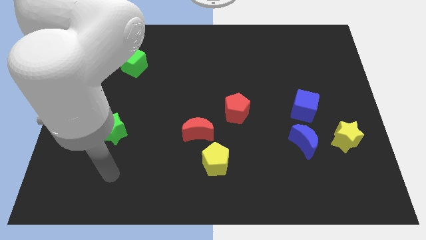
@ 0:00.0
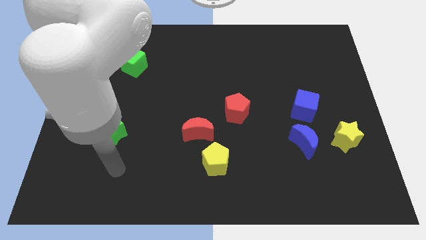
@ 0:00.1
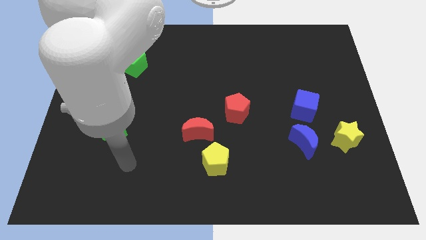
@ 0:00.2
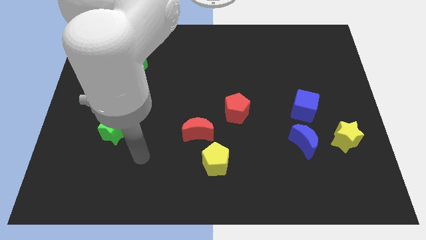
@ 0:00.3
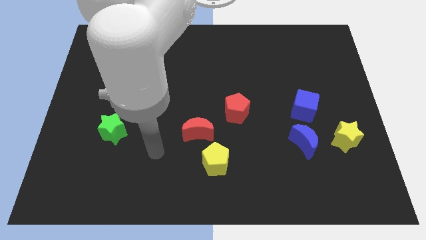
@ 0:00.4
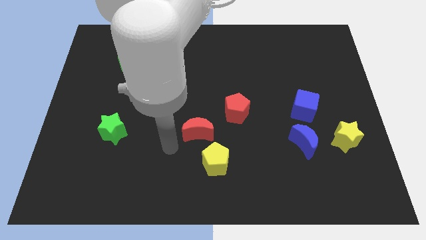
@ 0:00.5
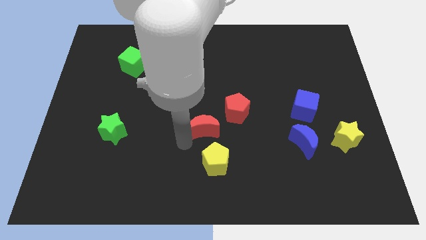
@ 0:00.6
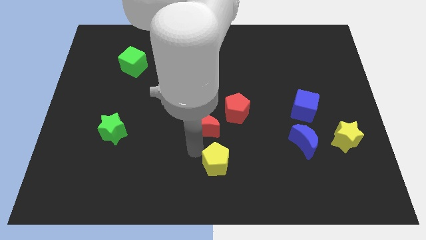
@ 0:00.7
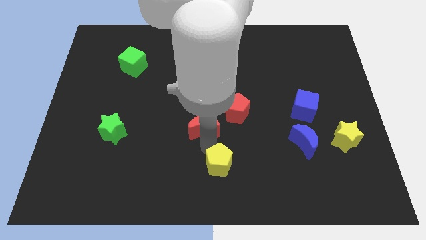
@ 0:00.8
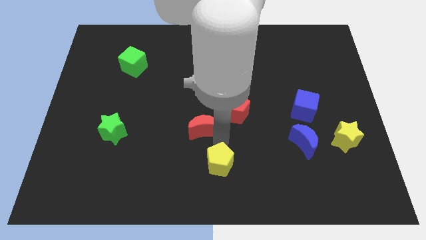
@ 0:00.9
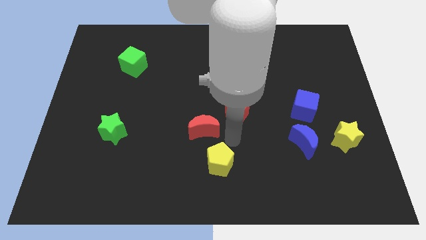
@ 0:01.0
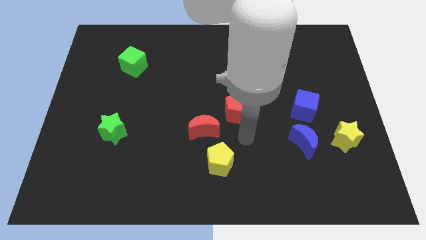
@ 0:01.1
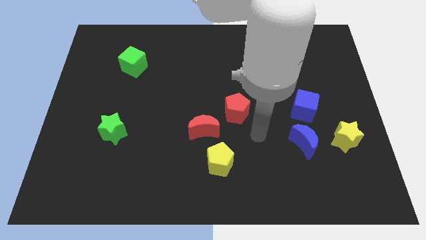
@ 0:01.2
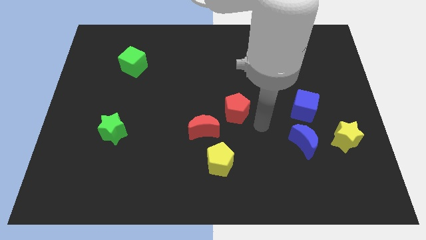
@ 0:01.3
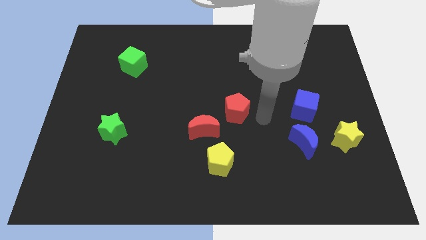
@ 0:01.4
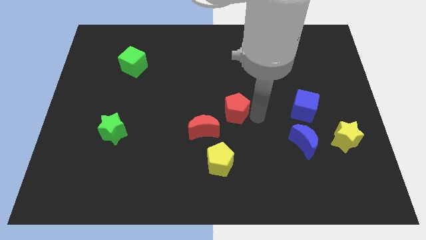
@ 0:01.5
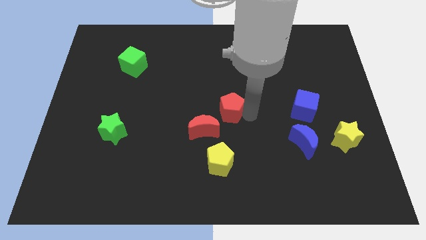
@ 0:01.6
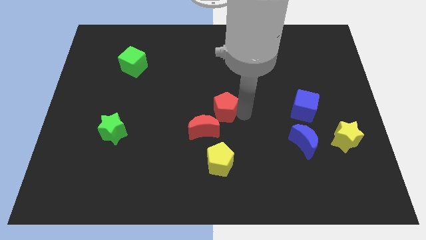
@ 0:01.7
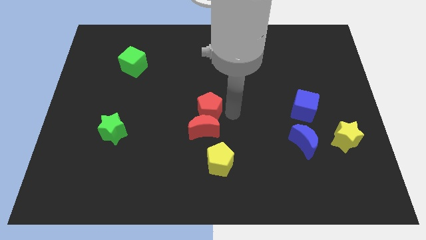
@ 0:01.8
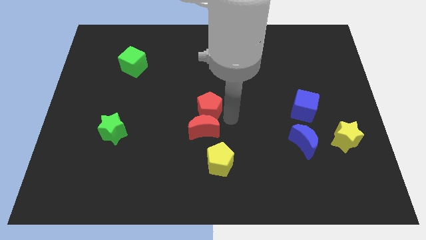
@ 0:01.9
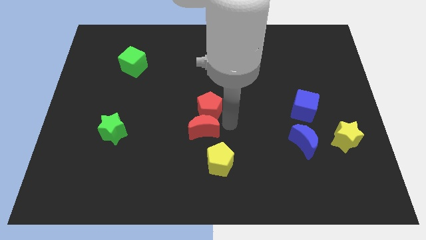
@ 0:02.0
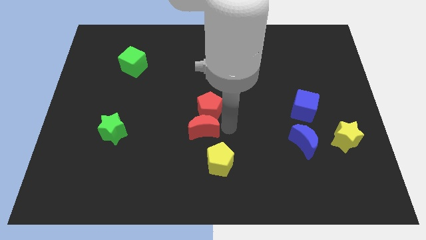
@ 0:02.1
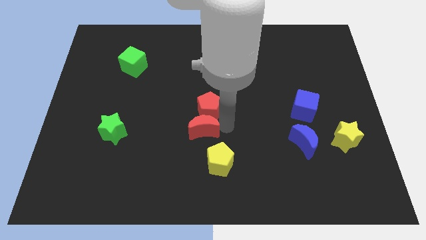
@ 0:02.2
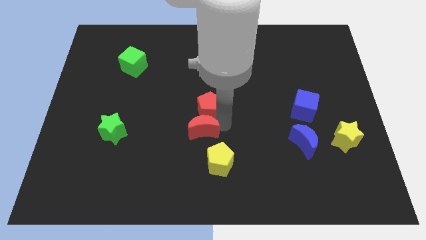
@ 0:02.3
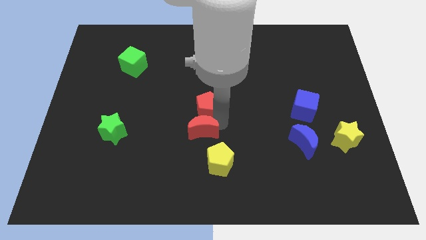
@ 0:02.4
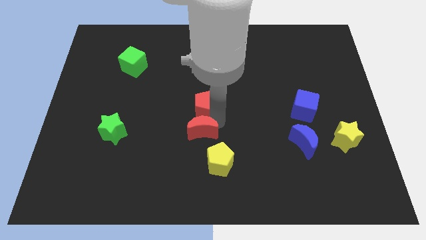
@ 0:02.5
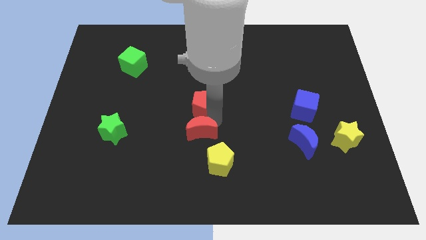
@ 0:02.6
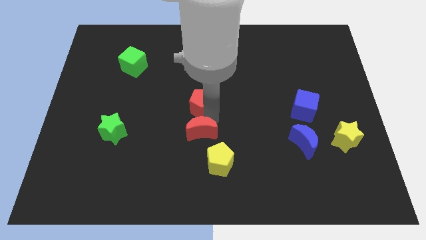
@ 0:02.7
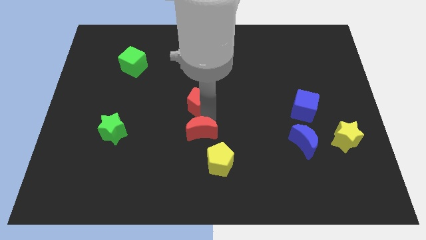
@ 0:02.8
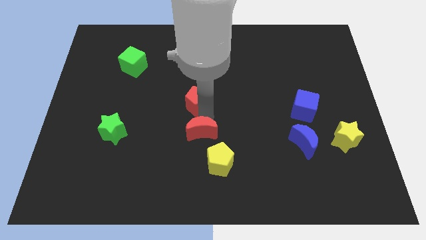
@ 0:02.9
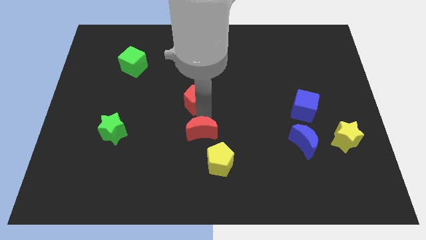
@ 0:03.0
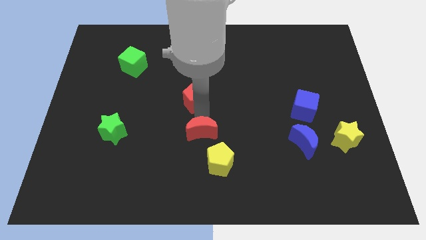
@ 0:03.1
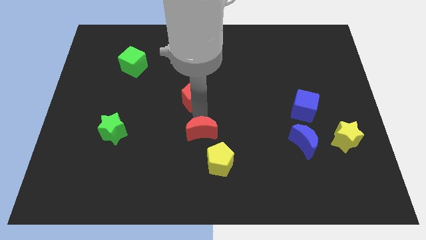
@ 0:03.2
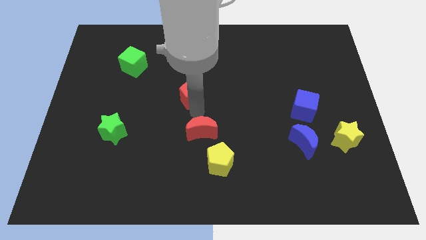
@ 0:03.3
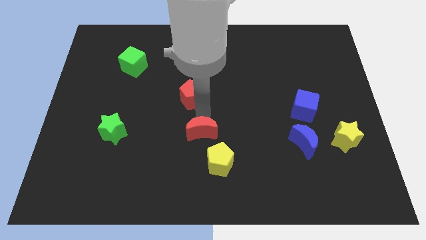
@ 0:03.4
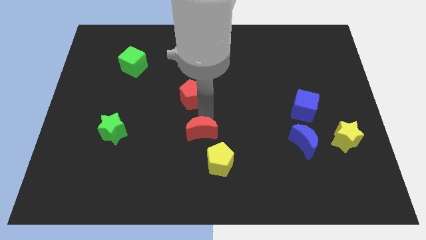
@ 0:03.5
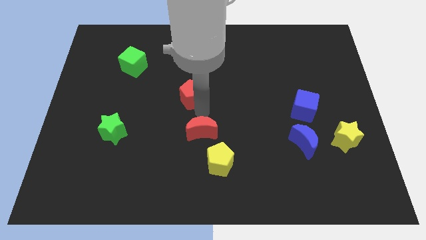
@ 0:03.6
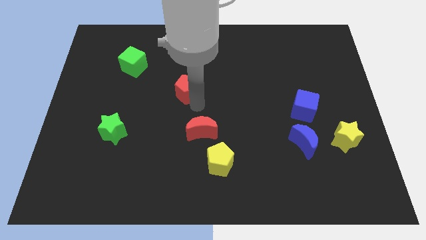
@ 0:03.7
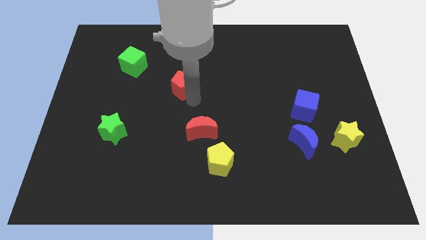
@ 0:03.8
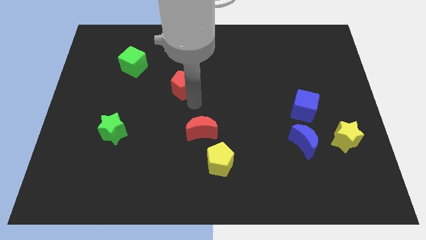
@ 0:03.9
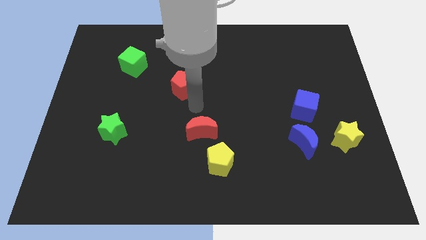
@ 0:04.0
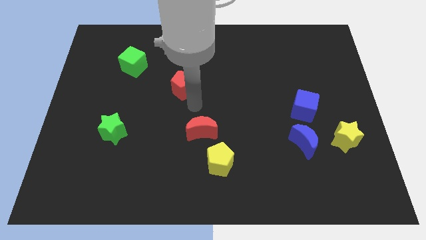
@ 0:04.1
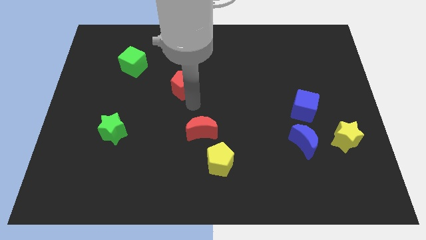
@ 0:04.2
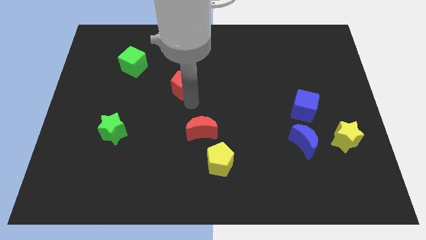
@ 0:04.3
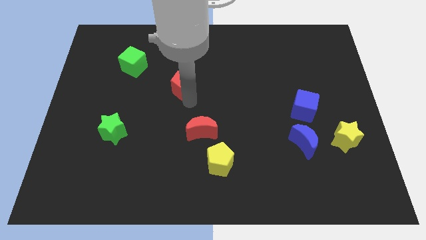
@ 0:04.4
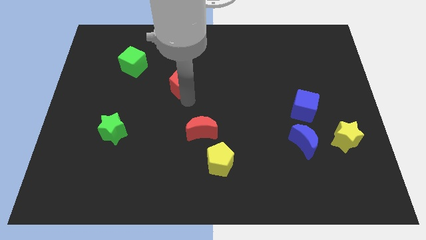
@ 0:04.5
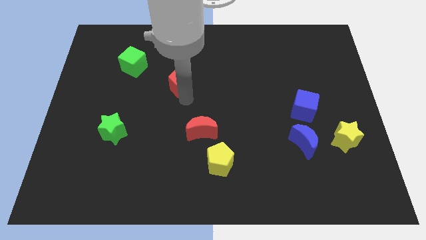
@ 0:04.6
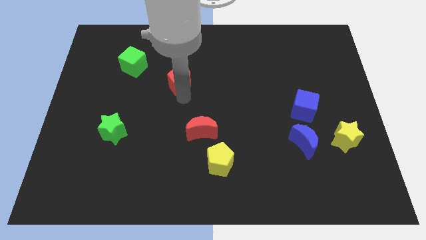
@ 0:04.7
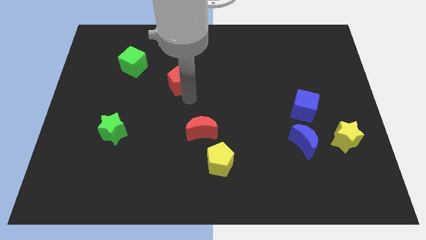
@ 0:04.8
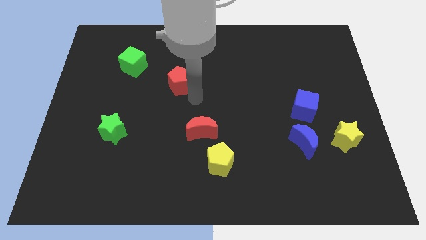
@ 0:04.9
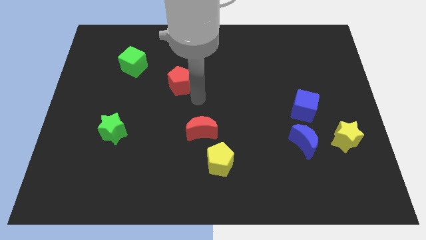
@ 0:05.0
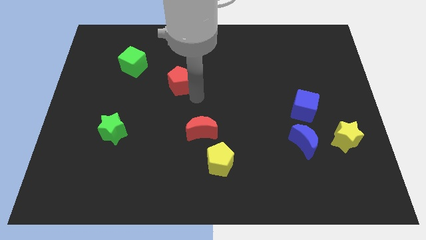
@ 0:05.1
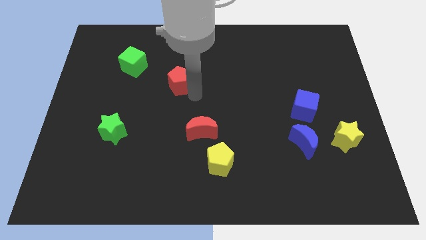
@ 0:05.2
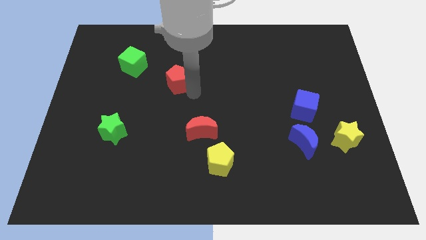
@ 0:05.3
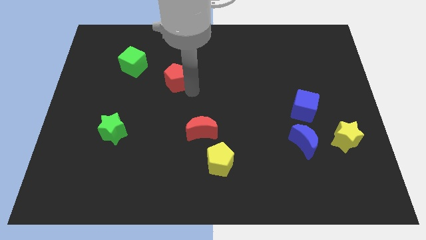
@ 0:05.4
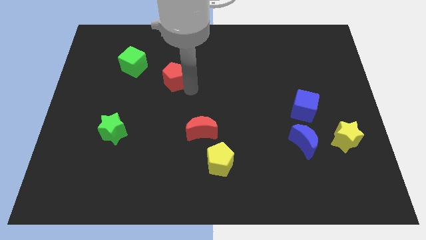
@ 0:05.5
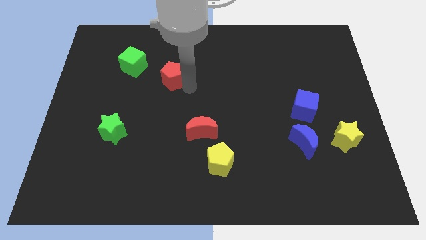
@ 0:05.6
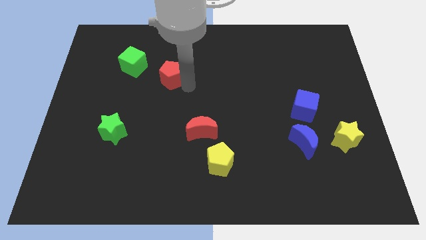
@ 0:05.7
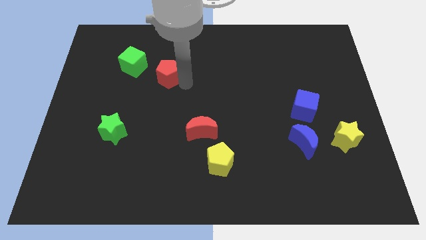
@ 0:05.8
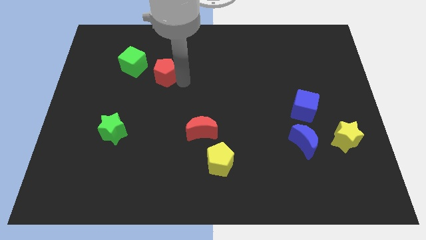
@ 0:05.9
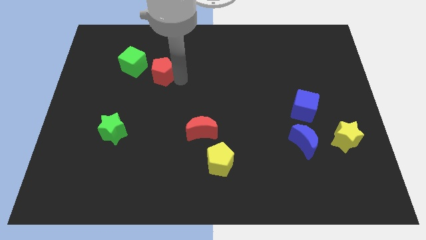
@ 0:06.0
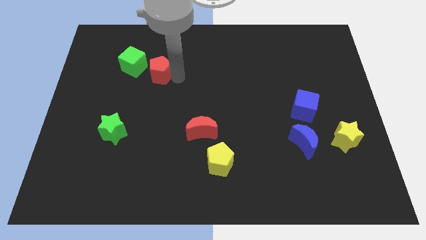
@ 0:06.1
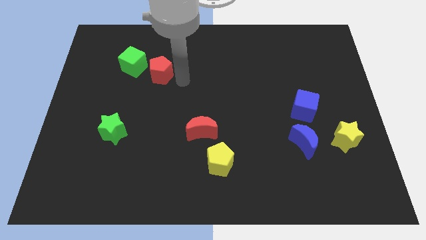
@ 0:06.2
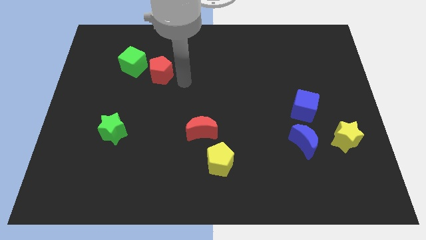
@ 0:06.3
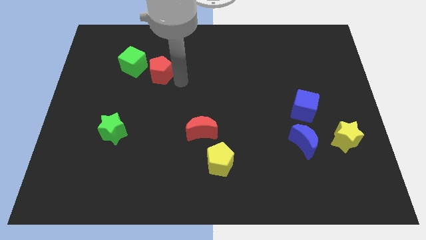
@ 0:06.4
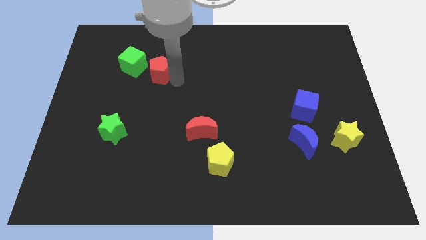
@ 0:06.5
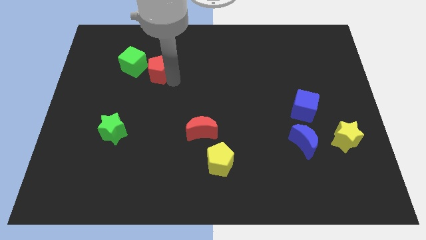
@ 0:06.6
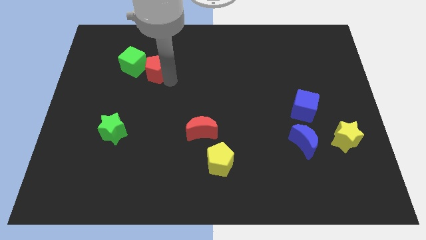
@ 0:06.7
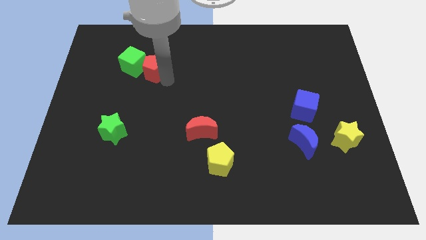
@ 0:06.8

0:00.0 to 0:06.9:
push the red pentagon close to the green cube
